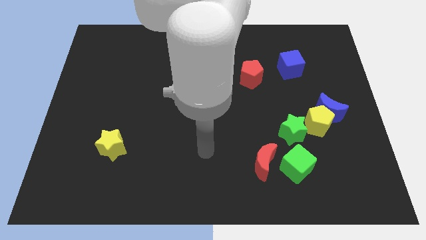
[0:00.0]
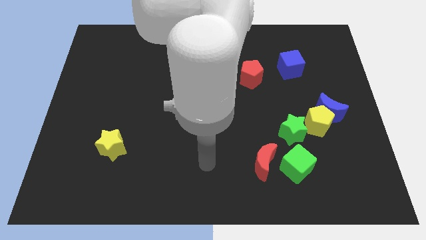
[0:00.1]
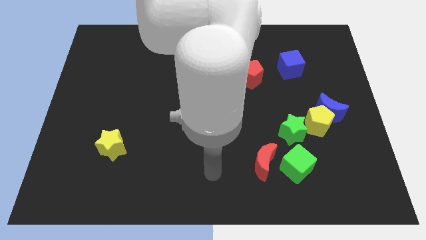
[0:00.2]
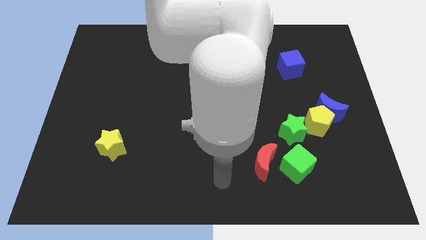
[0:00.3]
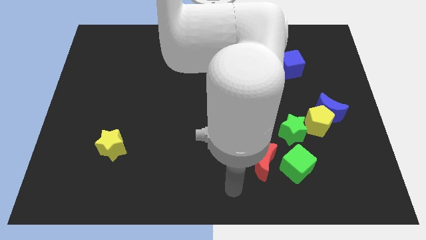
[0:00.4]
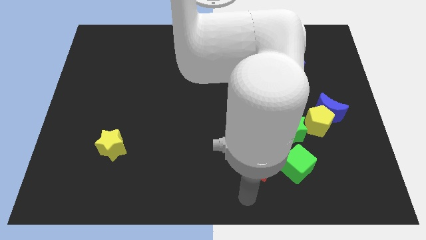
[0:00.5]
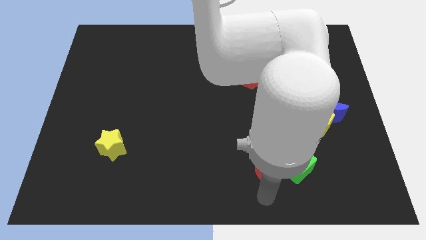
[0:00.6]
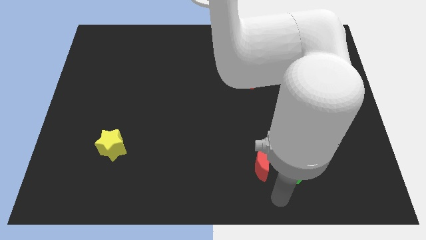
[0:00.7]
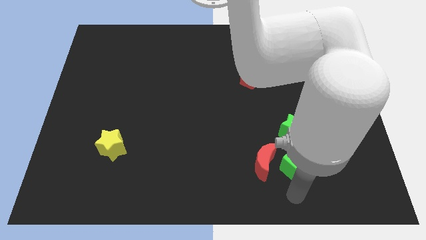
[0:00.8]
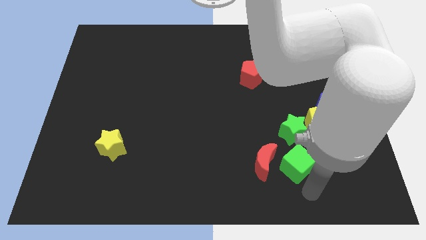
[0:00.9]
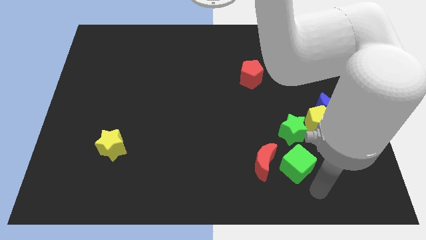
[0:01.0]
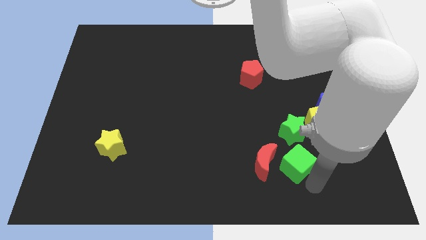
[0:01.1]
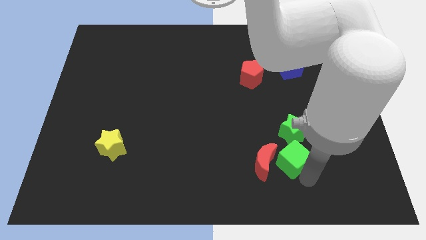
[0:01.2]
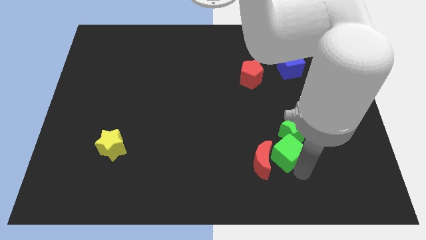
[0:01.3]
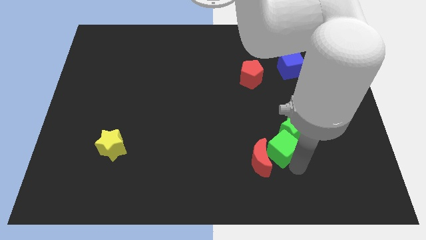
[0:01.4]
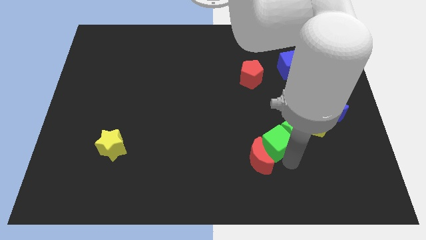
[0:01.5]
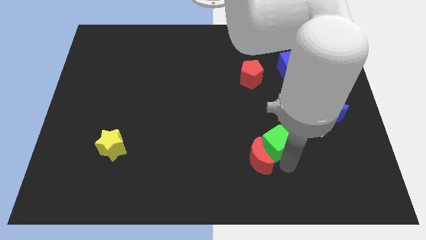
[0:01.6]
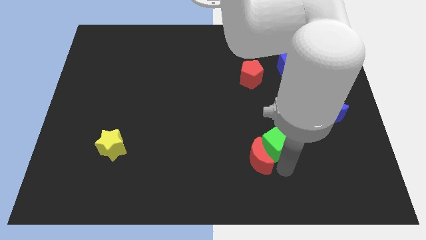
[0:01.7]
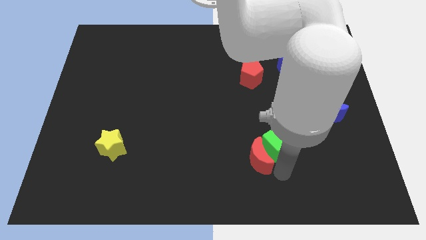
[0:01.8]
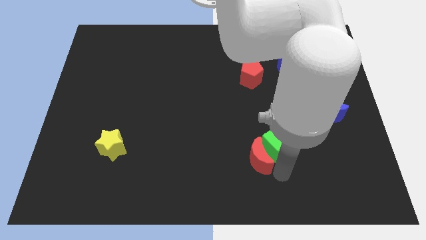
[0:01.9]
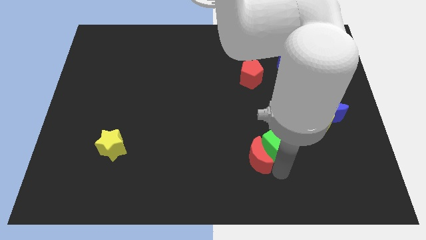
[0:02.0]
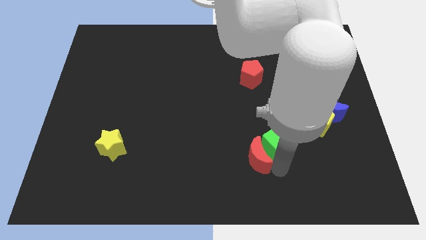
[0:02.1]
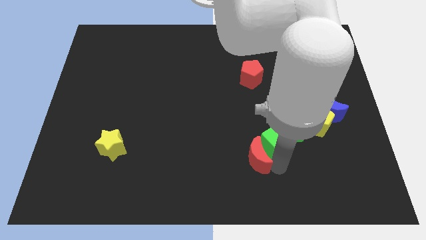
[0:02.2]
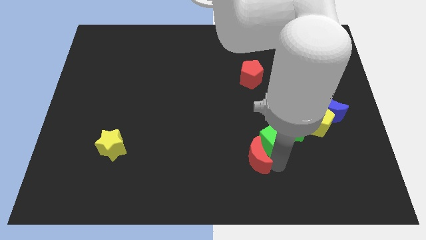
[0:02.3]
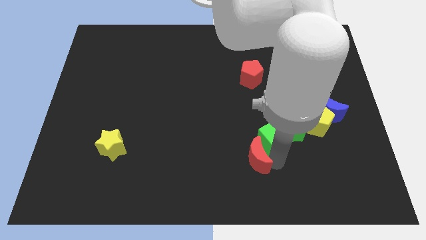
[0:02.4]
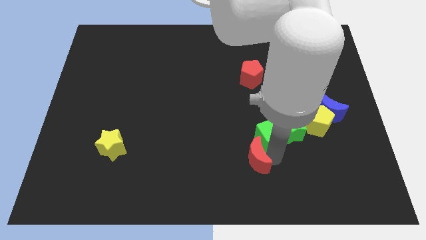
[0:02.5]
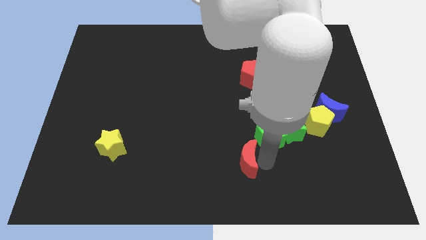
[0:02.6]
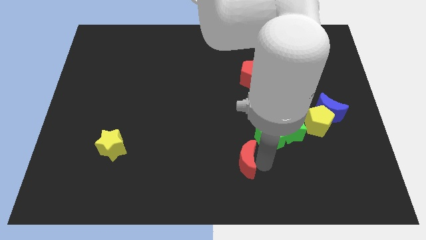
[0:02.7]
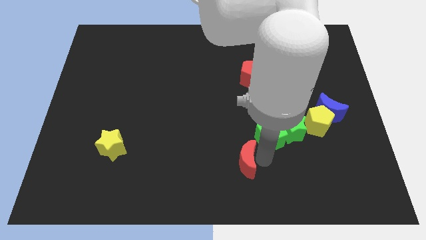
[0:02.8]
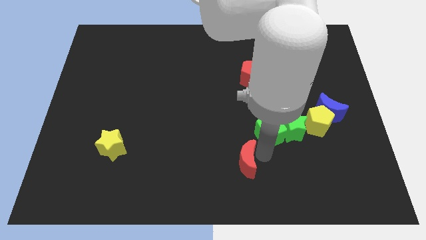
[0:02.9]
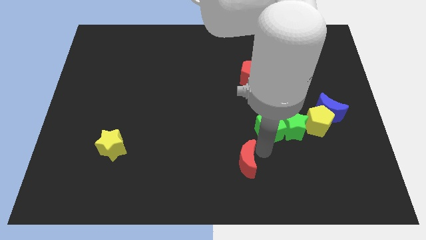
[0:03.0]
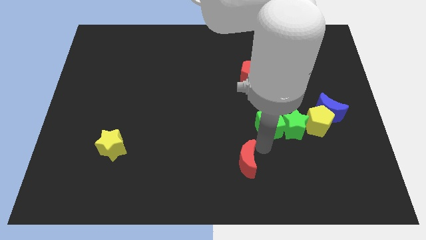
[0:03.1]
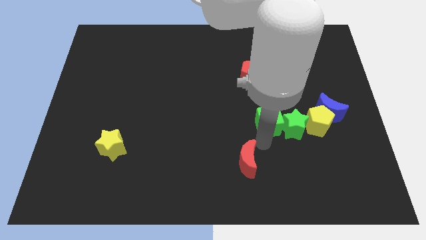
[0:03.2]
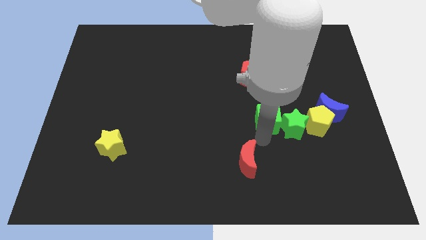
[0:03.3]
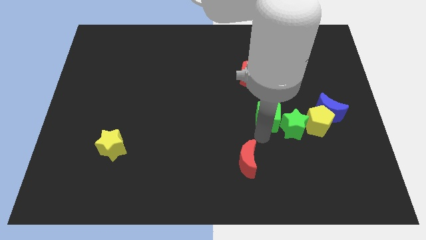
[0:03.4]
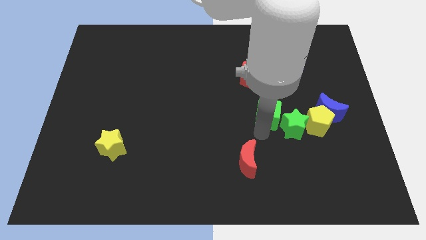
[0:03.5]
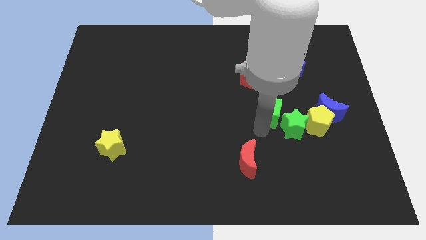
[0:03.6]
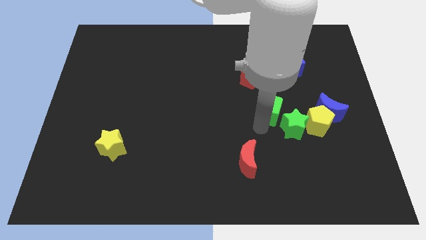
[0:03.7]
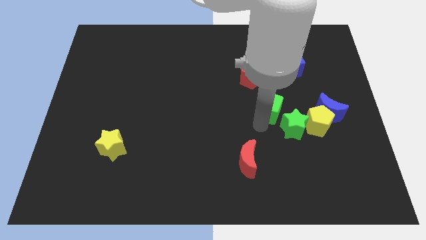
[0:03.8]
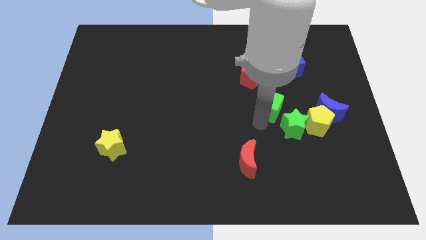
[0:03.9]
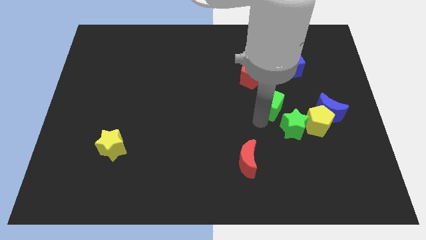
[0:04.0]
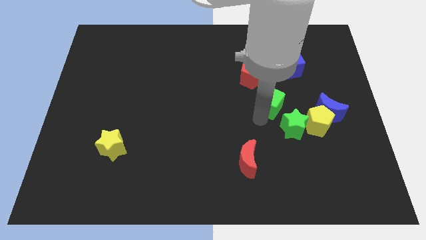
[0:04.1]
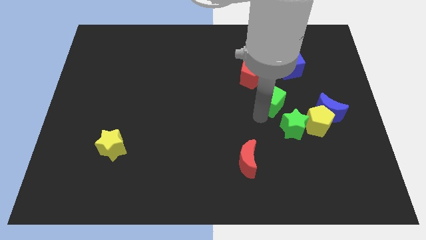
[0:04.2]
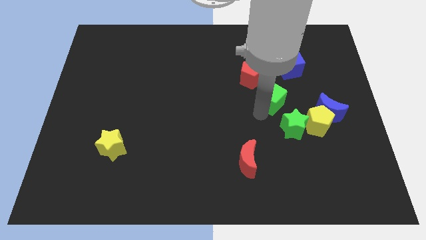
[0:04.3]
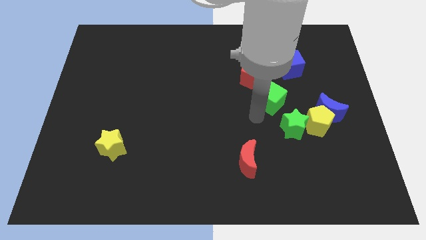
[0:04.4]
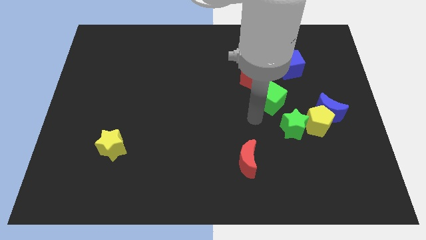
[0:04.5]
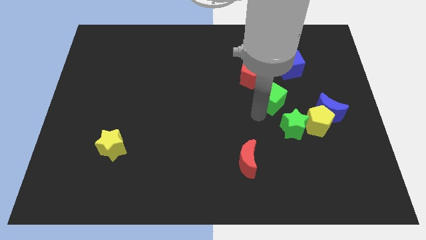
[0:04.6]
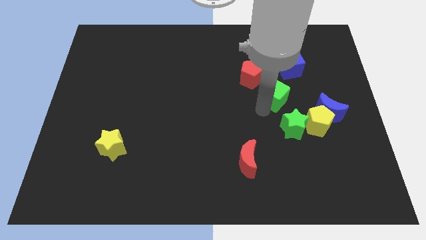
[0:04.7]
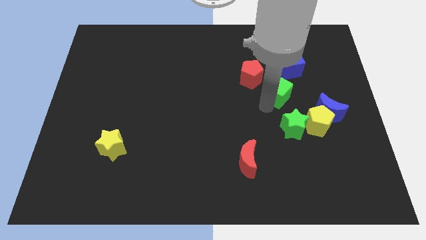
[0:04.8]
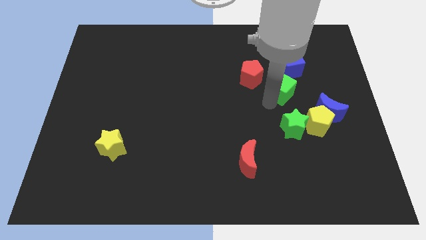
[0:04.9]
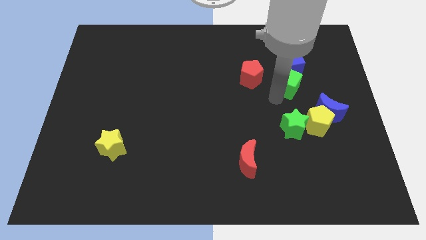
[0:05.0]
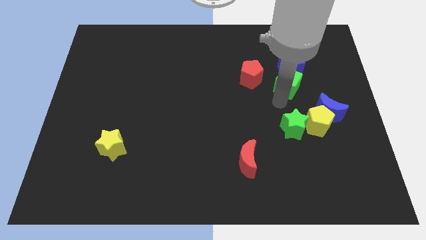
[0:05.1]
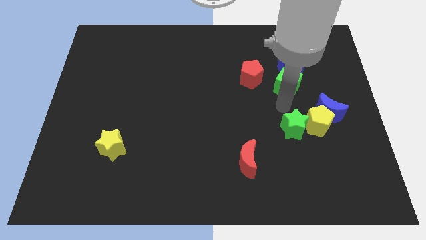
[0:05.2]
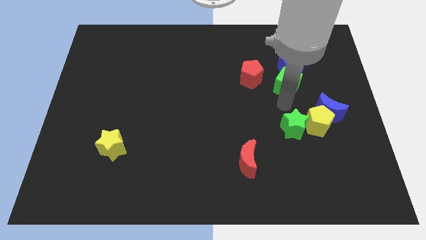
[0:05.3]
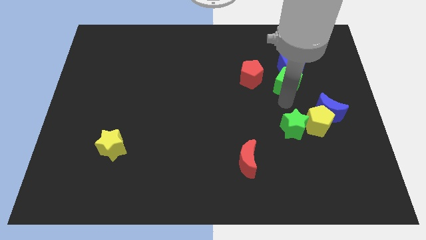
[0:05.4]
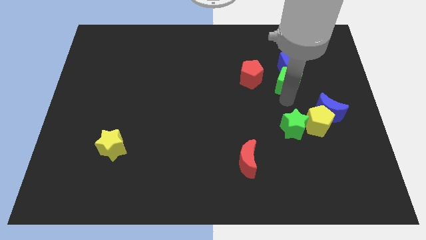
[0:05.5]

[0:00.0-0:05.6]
slide the green cube close to the blue cube

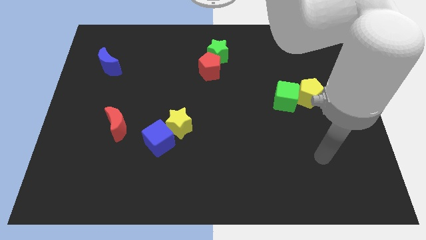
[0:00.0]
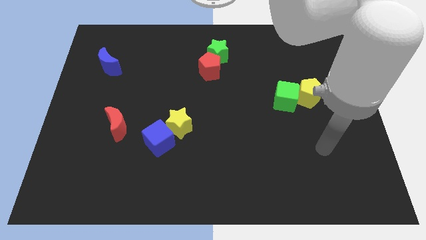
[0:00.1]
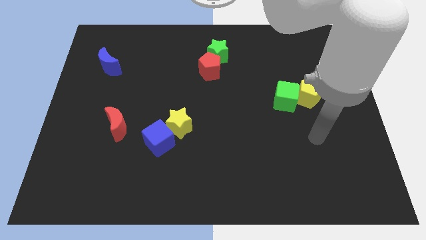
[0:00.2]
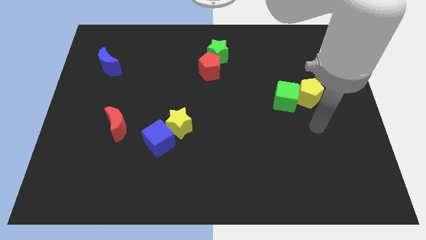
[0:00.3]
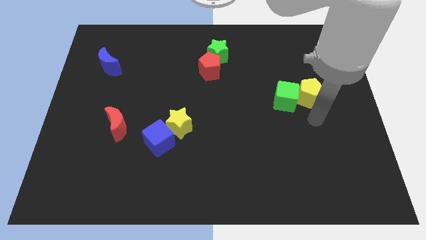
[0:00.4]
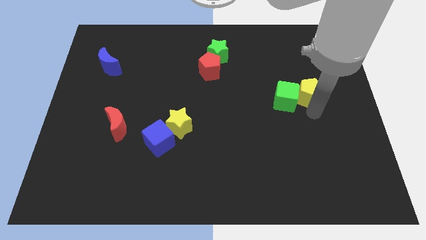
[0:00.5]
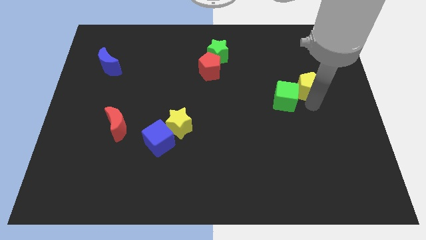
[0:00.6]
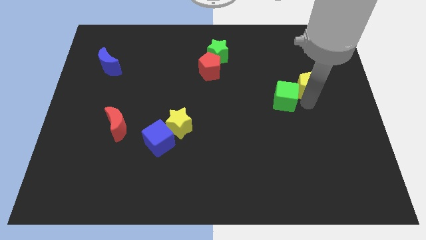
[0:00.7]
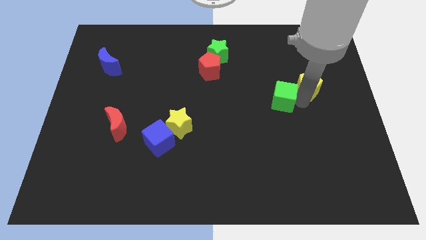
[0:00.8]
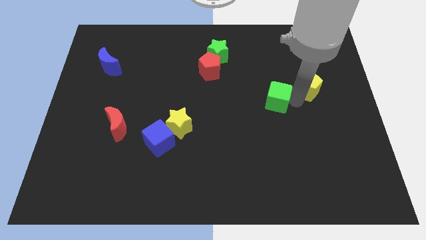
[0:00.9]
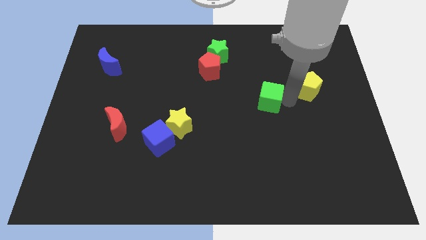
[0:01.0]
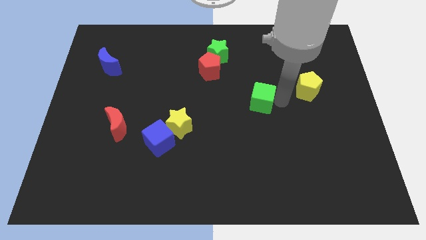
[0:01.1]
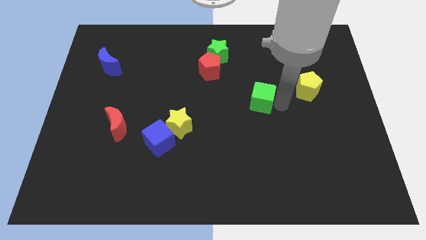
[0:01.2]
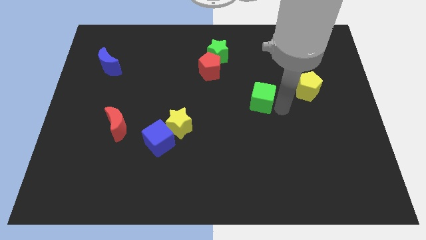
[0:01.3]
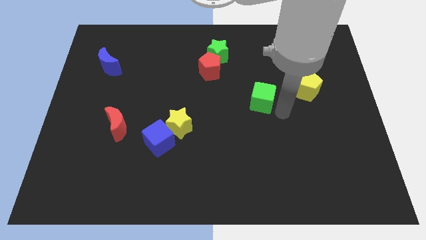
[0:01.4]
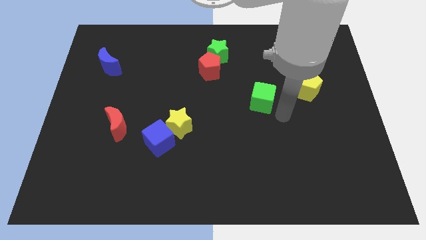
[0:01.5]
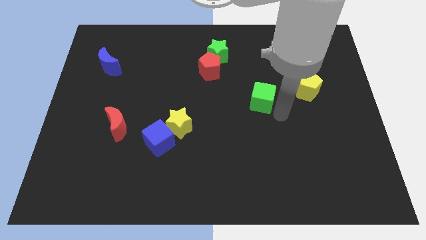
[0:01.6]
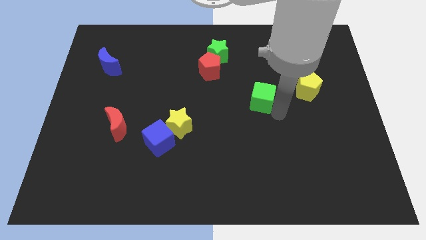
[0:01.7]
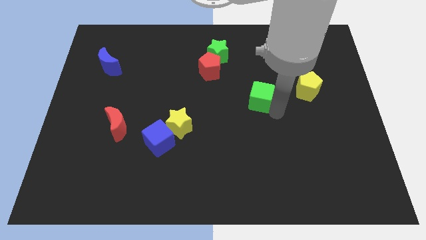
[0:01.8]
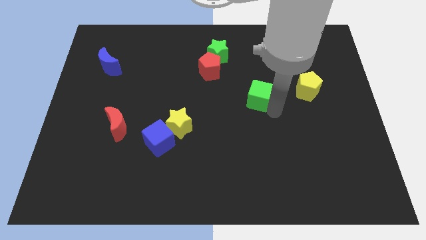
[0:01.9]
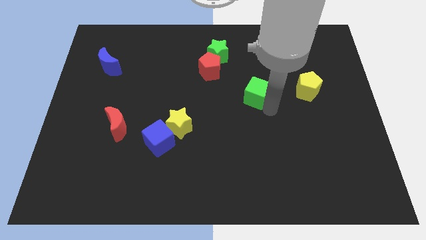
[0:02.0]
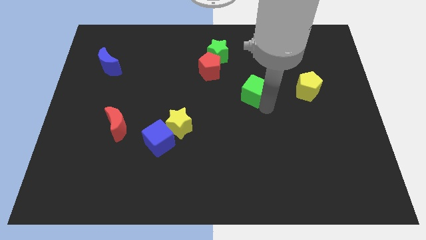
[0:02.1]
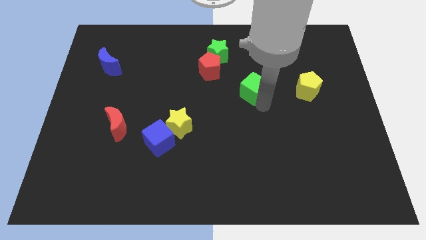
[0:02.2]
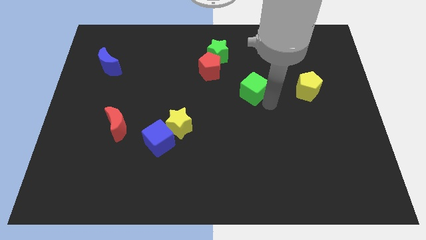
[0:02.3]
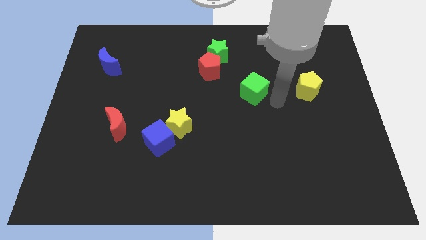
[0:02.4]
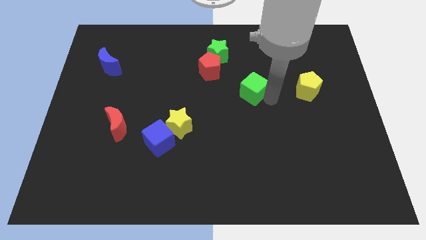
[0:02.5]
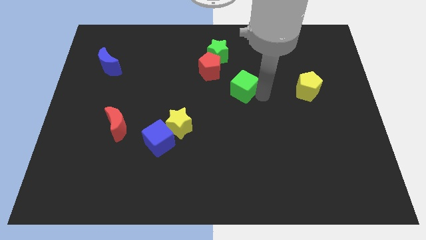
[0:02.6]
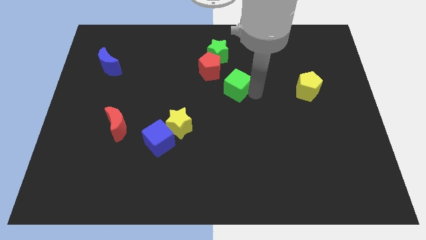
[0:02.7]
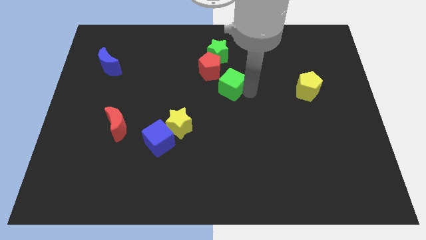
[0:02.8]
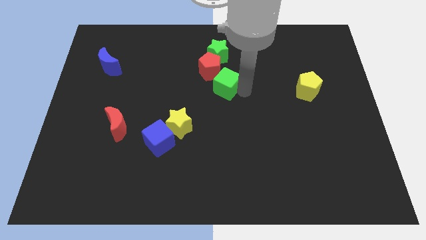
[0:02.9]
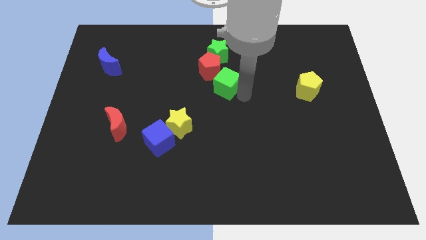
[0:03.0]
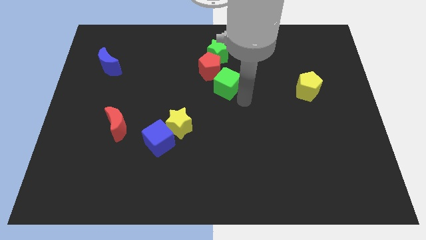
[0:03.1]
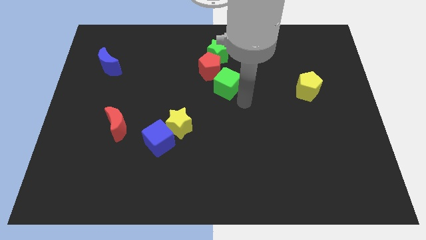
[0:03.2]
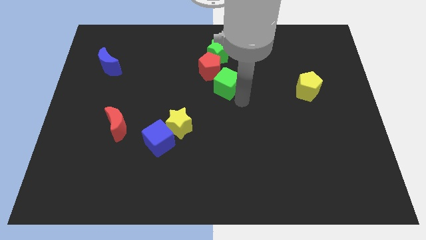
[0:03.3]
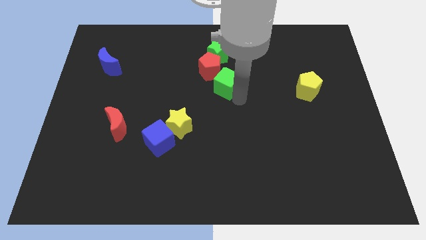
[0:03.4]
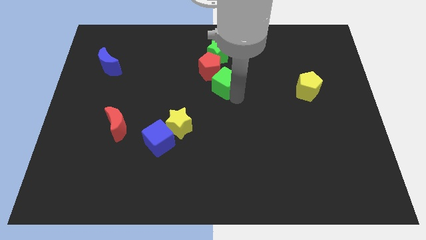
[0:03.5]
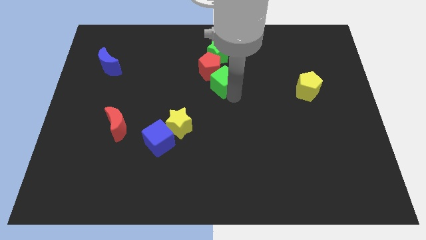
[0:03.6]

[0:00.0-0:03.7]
put the green cube towards the red pentagon
